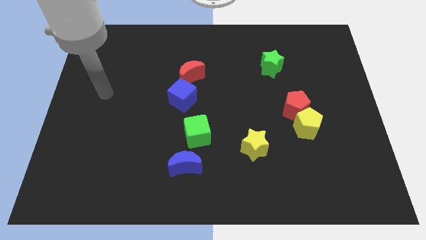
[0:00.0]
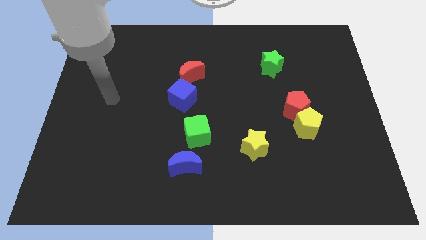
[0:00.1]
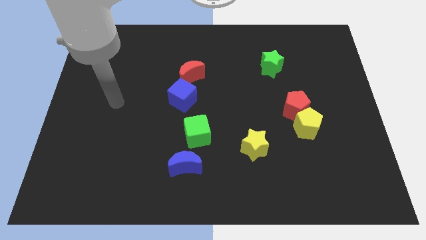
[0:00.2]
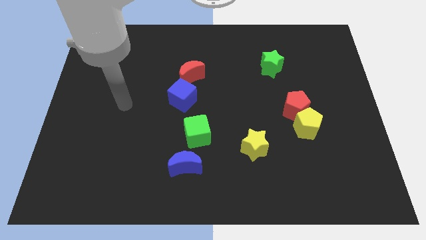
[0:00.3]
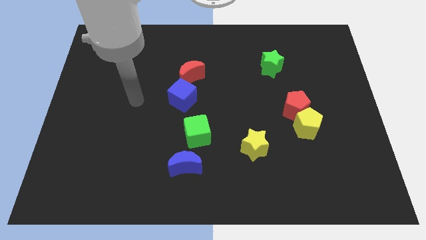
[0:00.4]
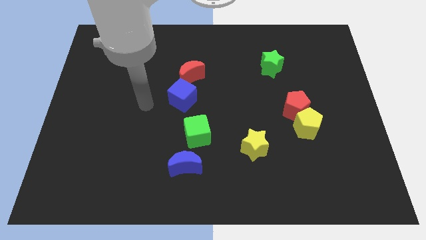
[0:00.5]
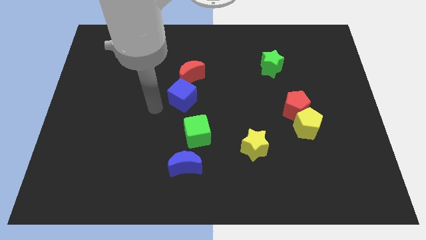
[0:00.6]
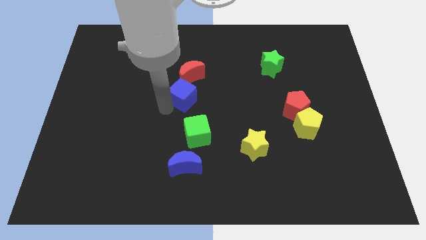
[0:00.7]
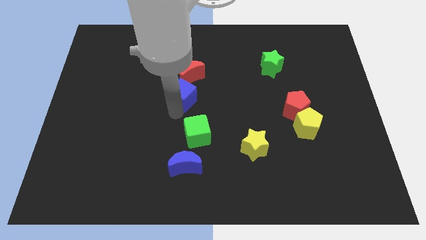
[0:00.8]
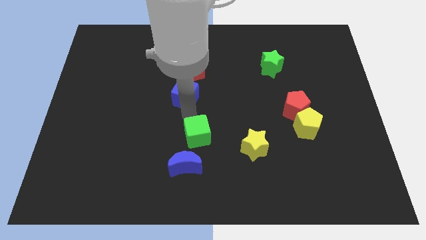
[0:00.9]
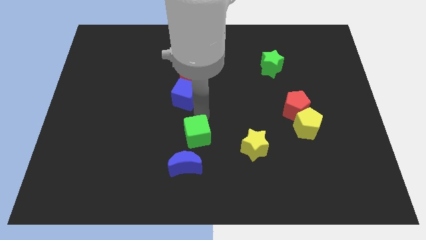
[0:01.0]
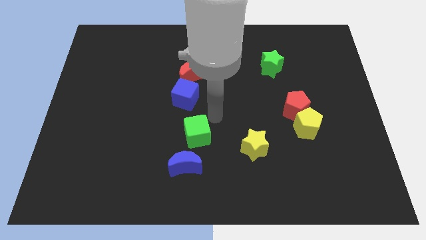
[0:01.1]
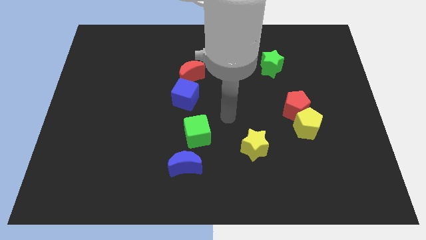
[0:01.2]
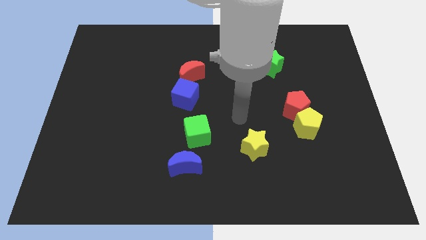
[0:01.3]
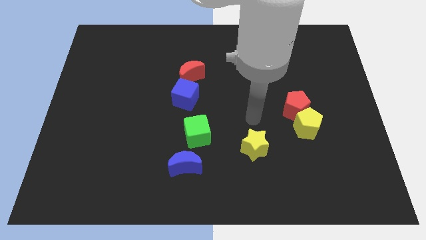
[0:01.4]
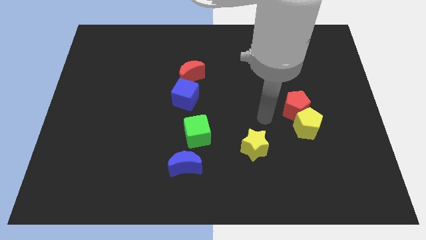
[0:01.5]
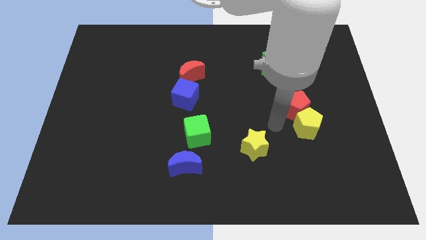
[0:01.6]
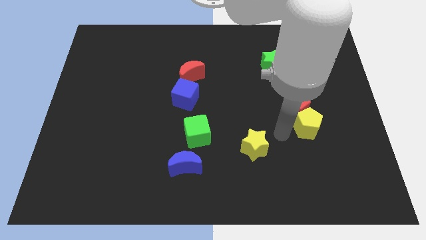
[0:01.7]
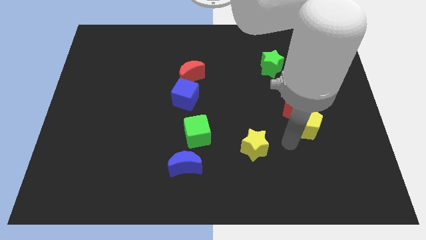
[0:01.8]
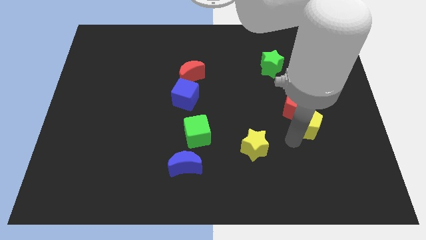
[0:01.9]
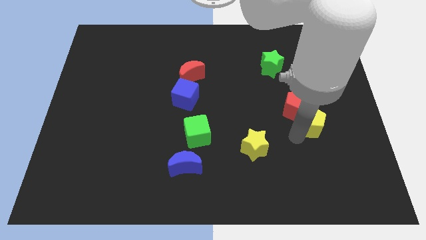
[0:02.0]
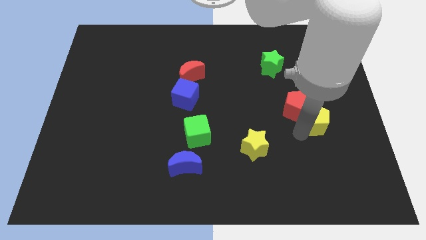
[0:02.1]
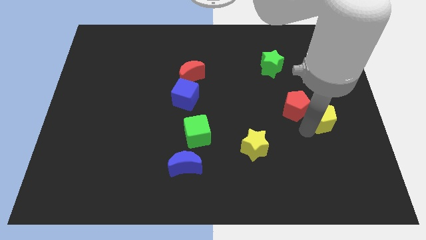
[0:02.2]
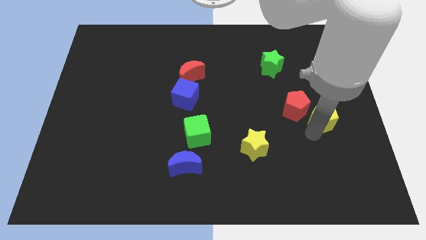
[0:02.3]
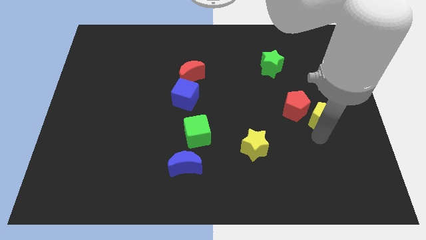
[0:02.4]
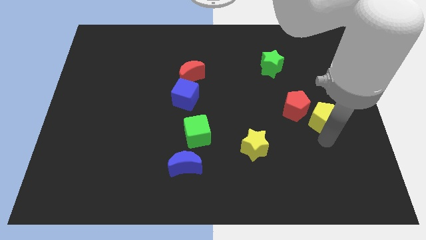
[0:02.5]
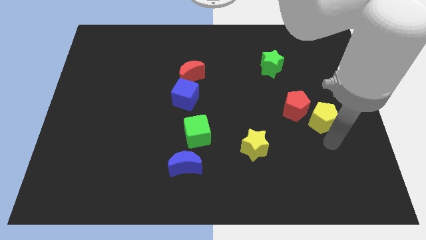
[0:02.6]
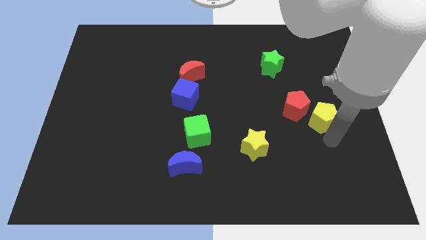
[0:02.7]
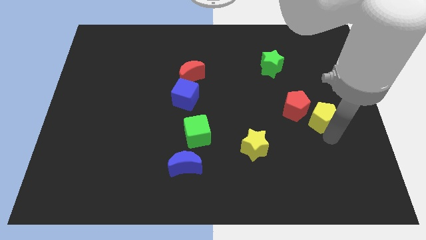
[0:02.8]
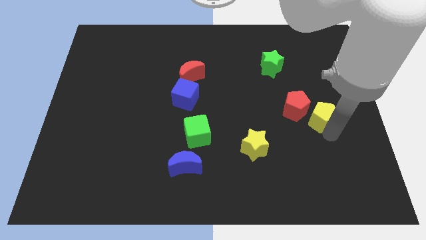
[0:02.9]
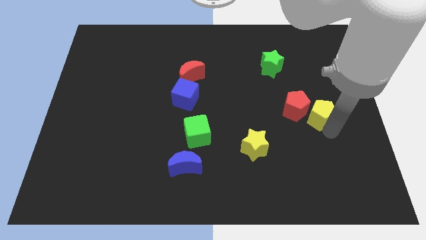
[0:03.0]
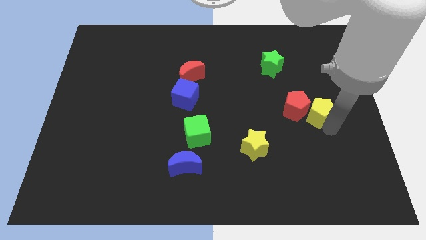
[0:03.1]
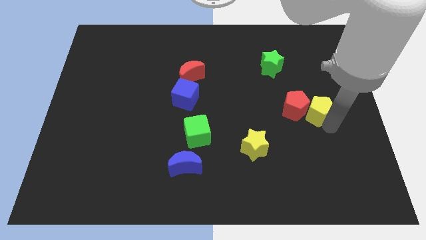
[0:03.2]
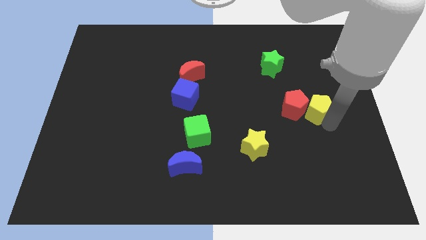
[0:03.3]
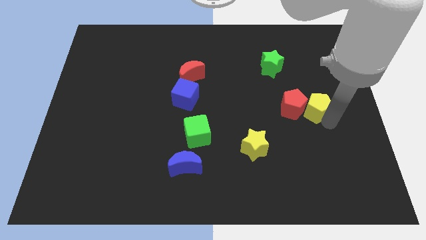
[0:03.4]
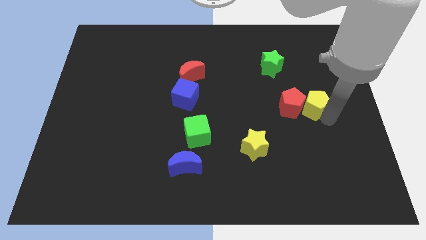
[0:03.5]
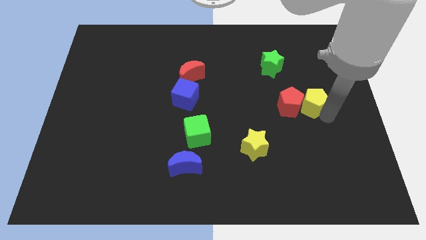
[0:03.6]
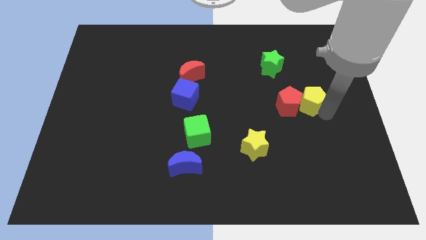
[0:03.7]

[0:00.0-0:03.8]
push the yellow pentagon up somewhat

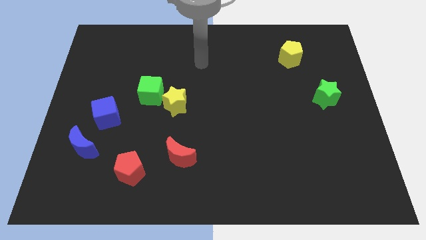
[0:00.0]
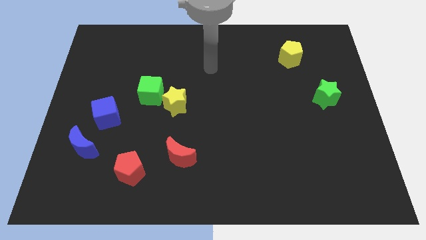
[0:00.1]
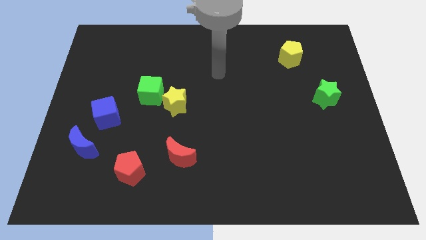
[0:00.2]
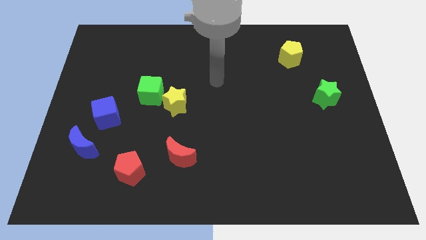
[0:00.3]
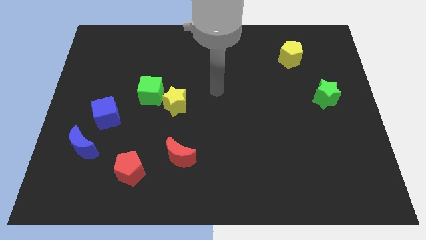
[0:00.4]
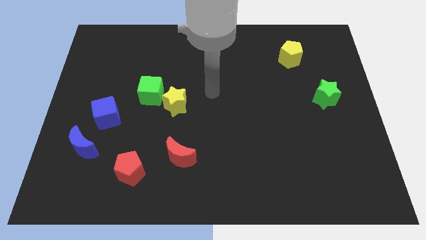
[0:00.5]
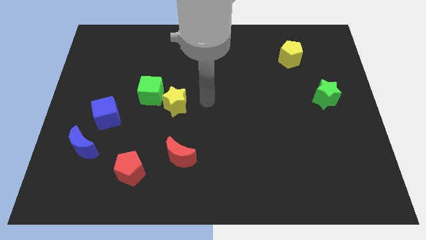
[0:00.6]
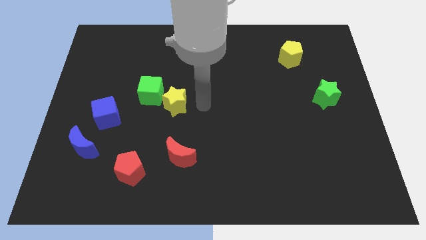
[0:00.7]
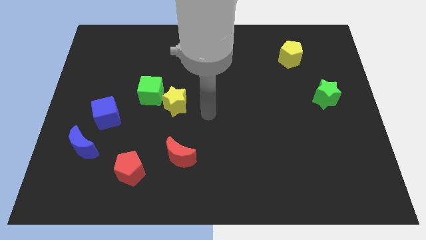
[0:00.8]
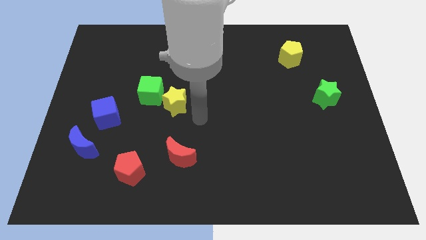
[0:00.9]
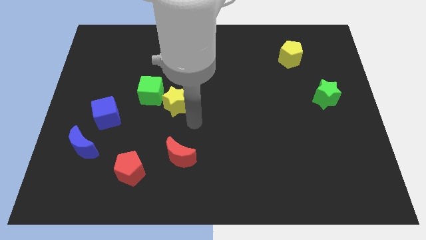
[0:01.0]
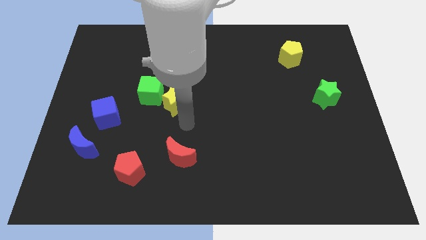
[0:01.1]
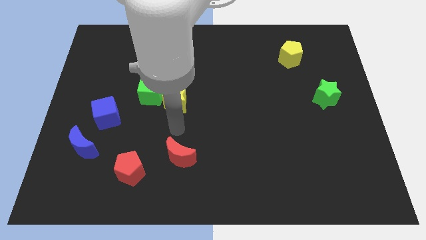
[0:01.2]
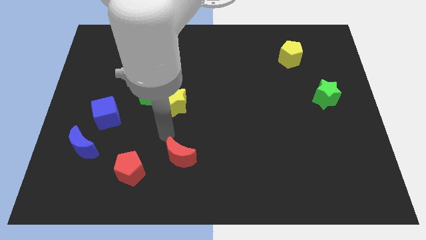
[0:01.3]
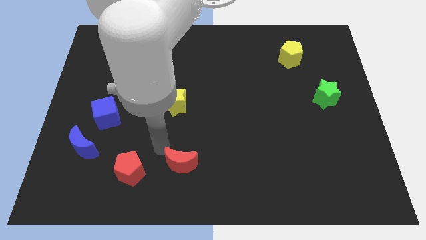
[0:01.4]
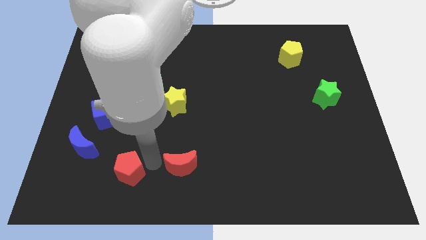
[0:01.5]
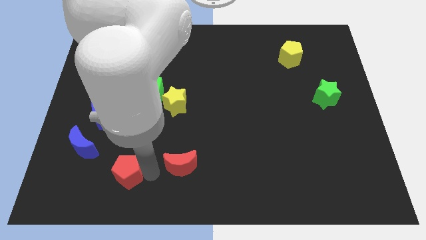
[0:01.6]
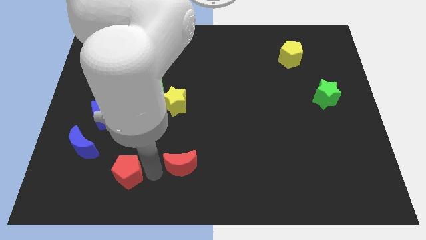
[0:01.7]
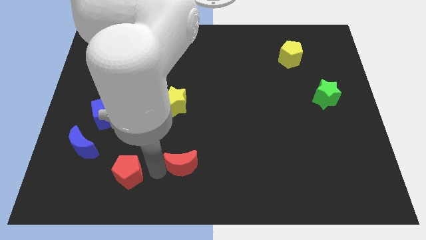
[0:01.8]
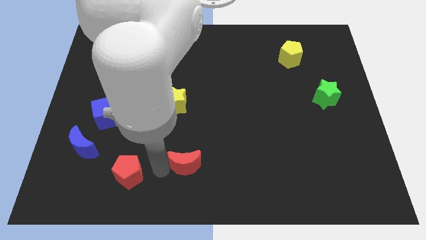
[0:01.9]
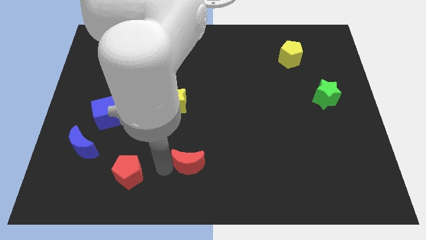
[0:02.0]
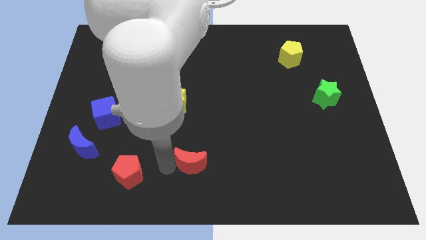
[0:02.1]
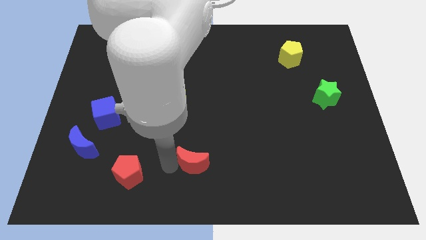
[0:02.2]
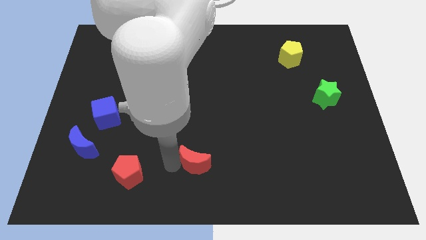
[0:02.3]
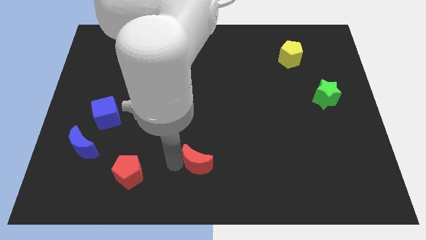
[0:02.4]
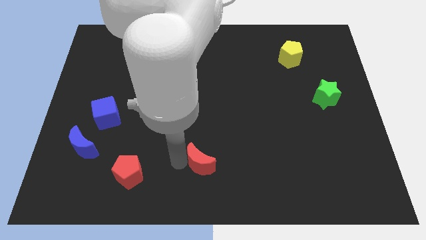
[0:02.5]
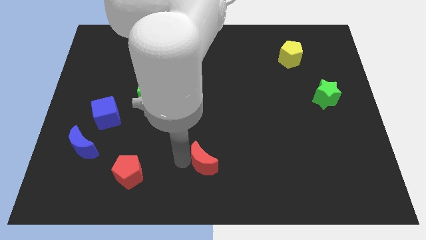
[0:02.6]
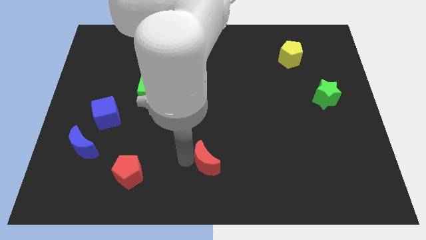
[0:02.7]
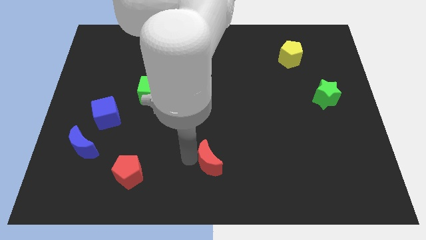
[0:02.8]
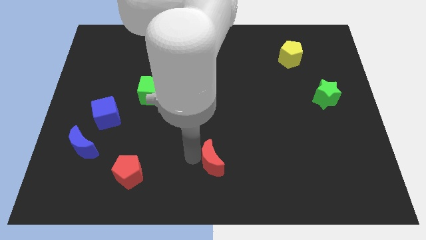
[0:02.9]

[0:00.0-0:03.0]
slide the red moon somewhat to the right

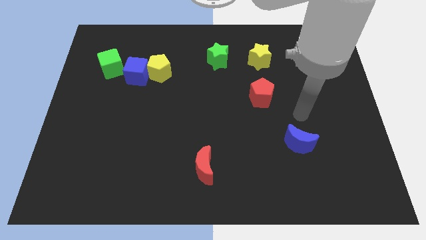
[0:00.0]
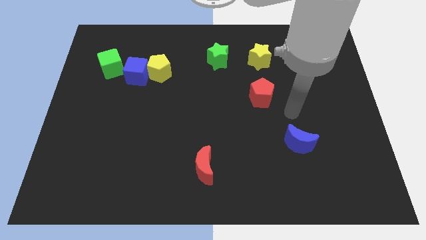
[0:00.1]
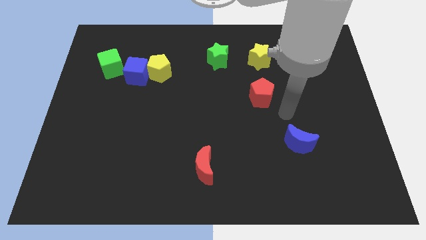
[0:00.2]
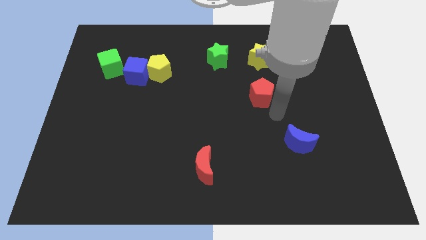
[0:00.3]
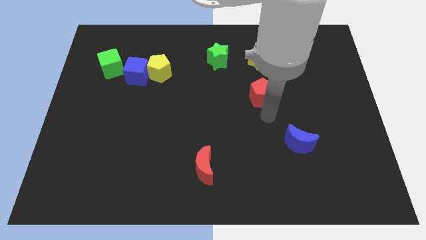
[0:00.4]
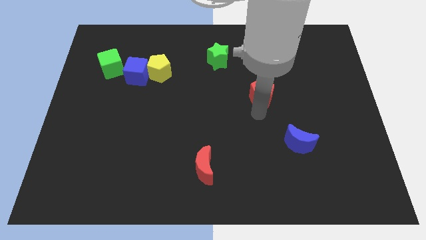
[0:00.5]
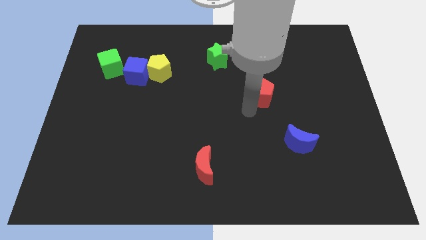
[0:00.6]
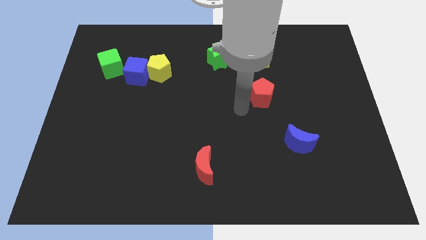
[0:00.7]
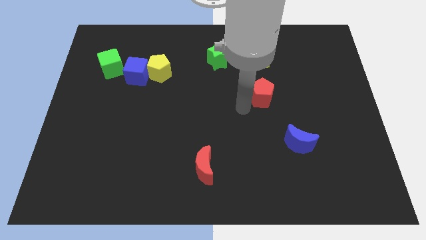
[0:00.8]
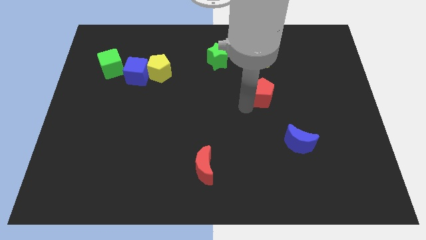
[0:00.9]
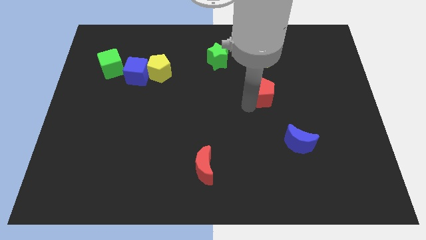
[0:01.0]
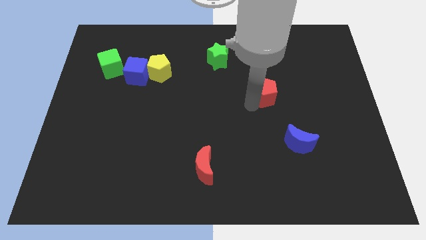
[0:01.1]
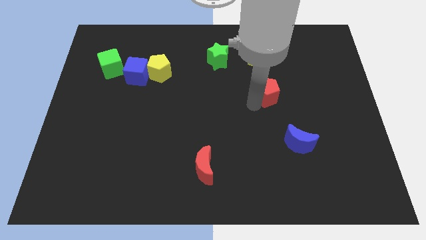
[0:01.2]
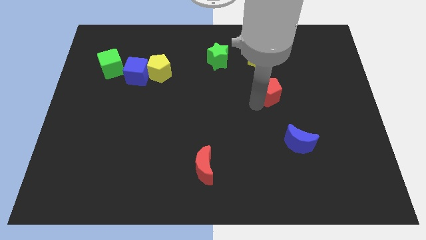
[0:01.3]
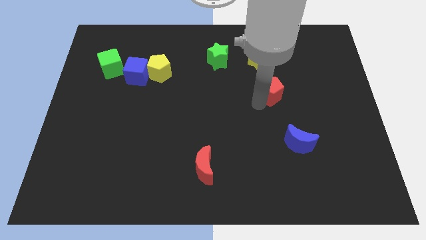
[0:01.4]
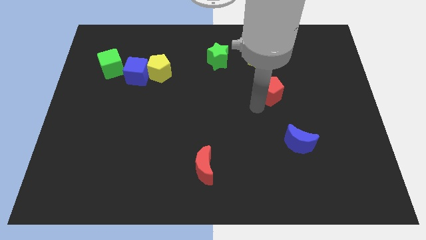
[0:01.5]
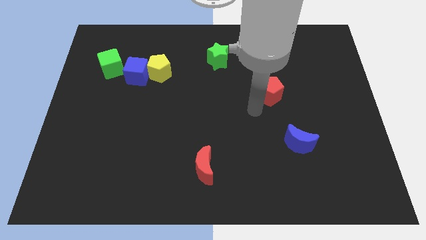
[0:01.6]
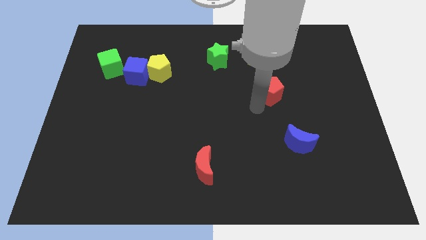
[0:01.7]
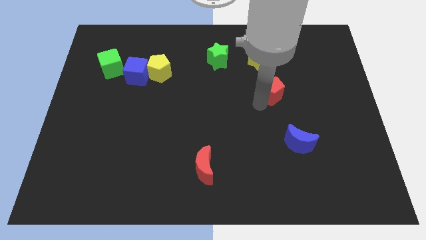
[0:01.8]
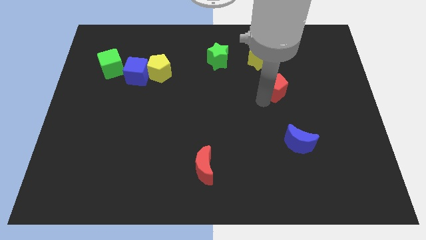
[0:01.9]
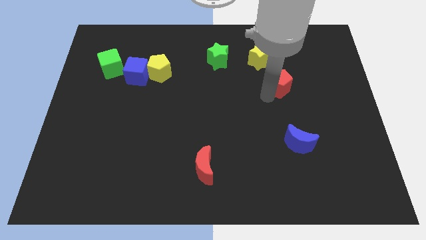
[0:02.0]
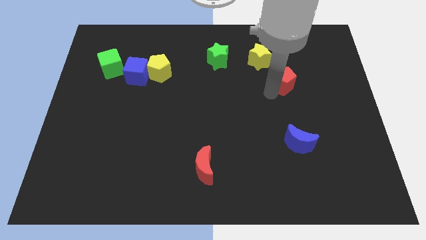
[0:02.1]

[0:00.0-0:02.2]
slide the red pentagon a bit up and then to the right
